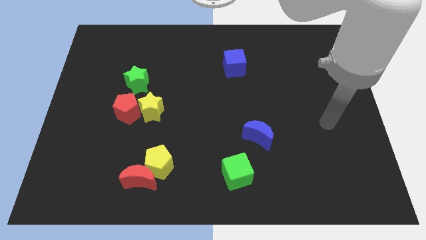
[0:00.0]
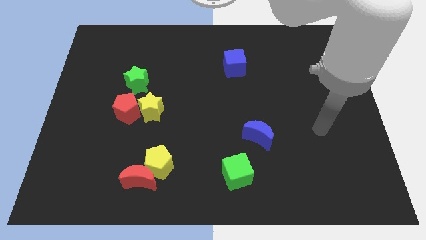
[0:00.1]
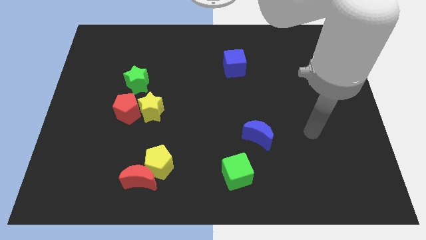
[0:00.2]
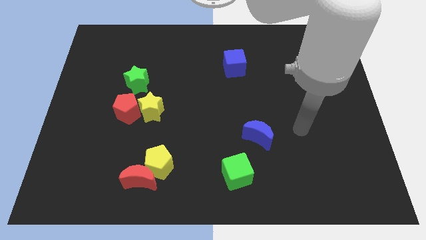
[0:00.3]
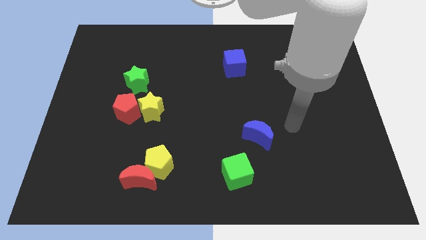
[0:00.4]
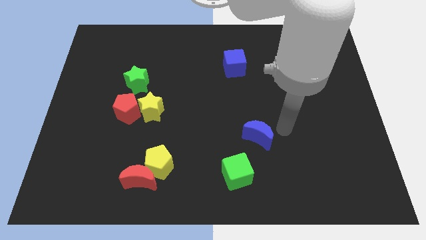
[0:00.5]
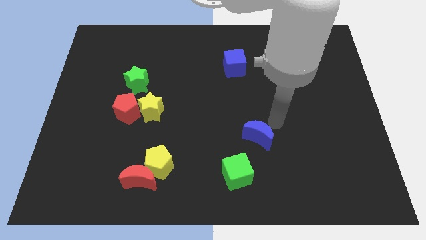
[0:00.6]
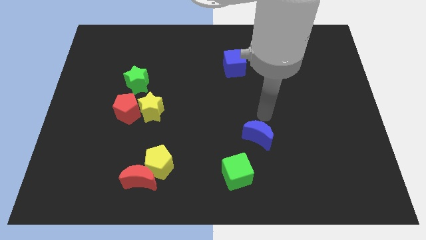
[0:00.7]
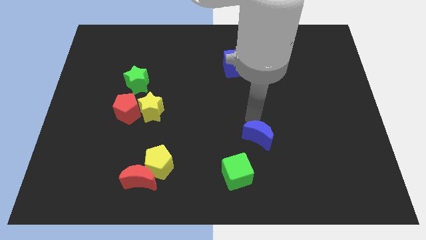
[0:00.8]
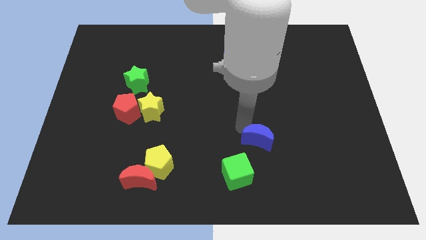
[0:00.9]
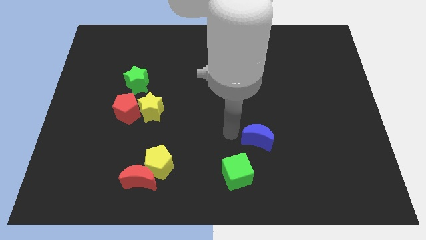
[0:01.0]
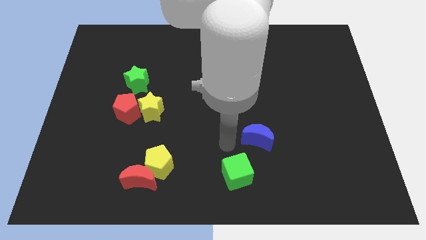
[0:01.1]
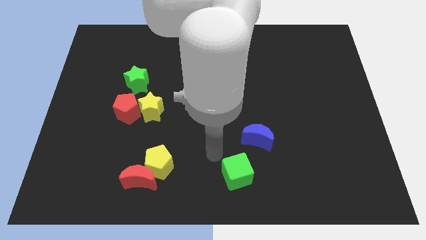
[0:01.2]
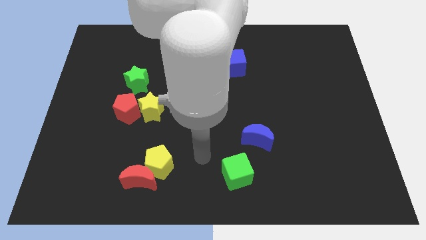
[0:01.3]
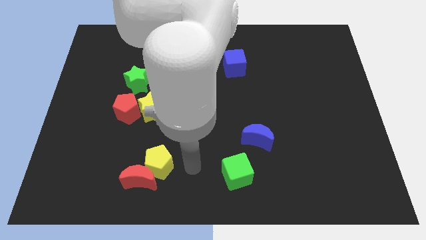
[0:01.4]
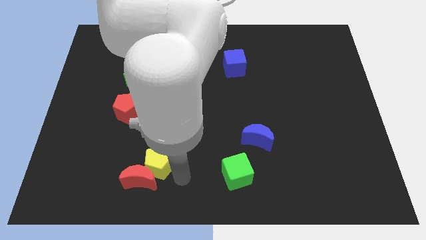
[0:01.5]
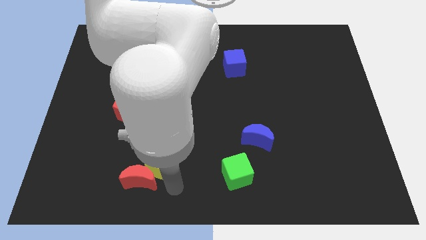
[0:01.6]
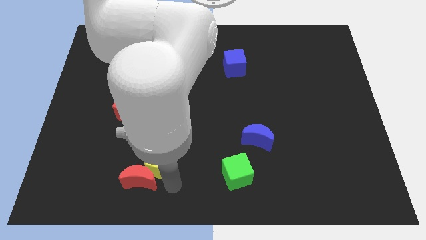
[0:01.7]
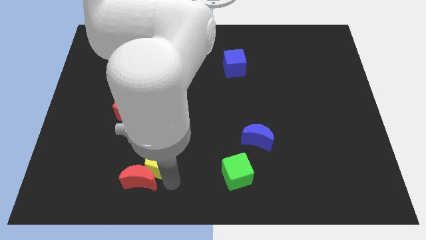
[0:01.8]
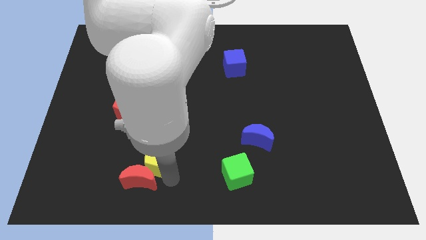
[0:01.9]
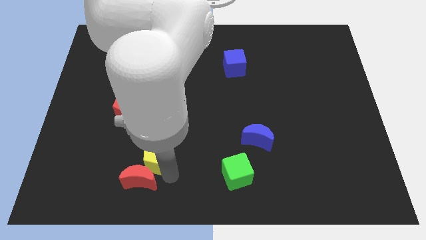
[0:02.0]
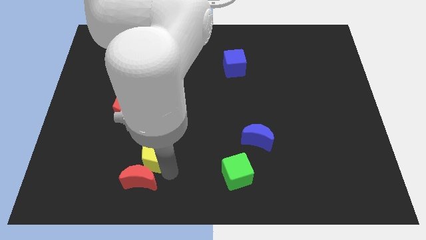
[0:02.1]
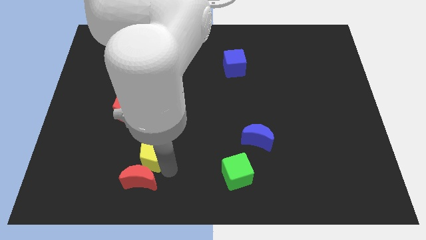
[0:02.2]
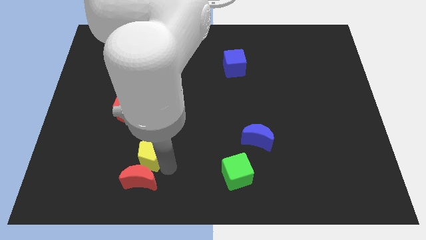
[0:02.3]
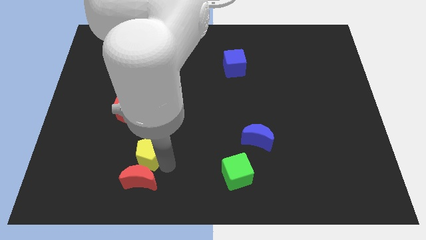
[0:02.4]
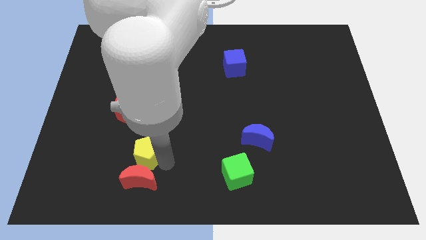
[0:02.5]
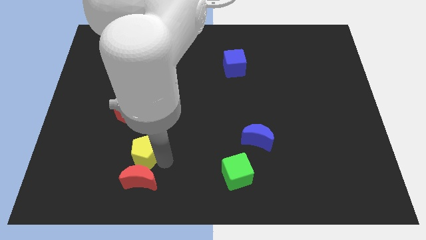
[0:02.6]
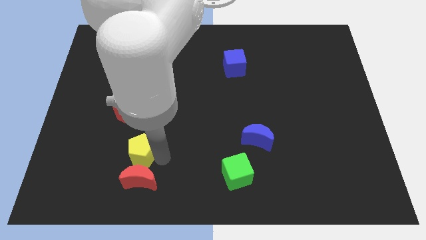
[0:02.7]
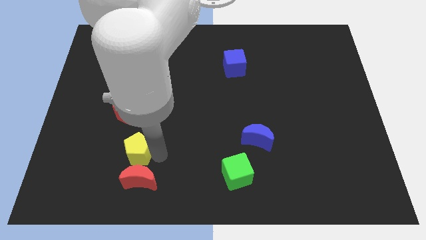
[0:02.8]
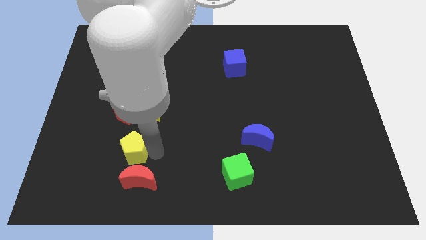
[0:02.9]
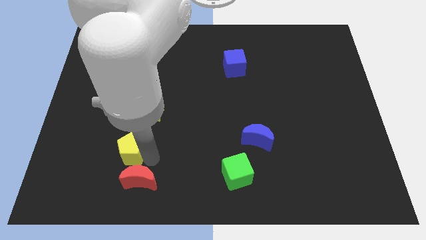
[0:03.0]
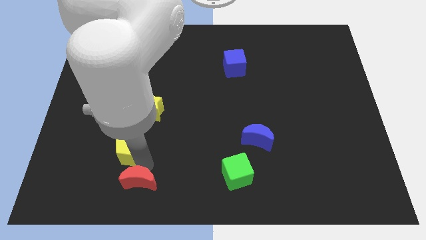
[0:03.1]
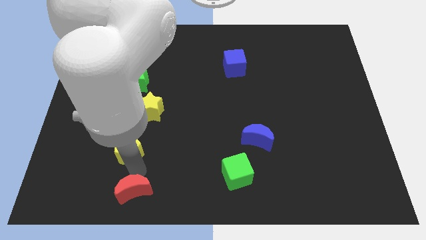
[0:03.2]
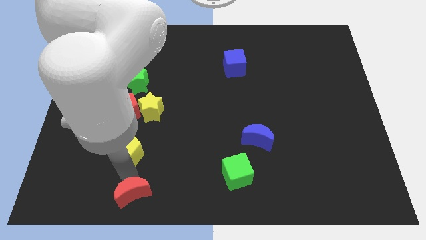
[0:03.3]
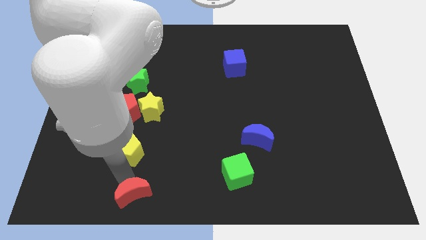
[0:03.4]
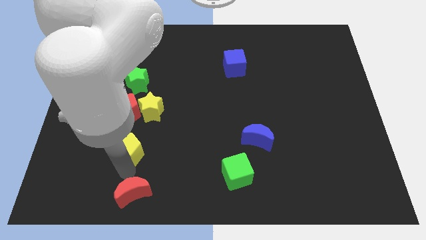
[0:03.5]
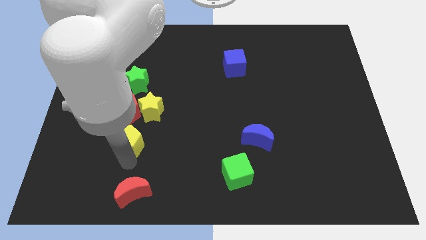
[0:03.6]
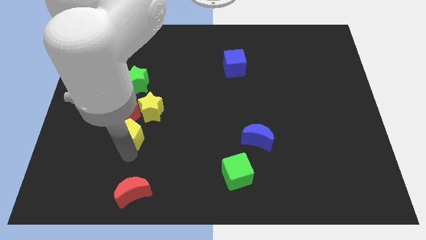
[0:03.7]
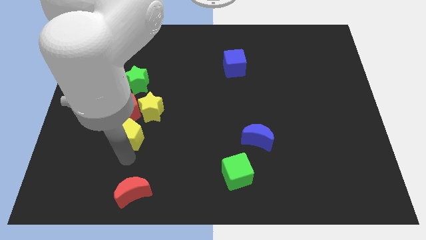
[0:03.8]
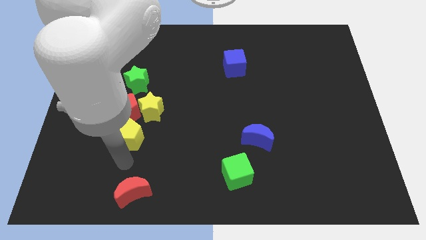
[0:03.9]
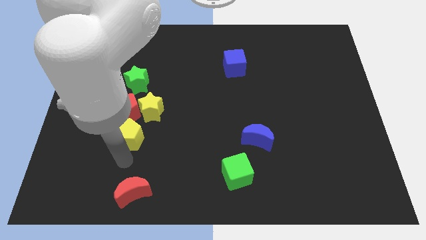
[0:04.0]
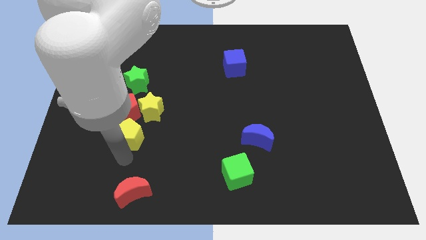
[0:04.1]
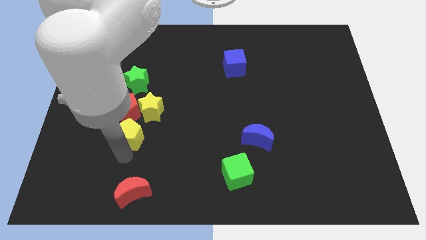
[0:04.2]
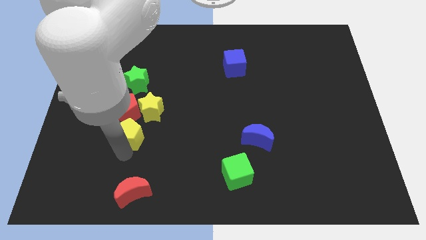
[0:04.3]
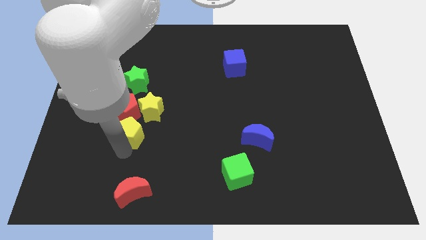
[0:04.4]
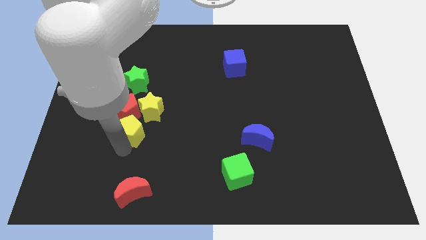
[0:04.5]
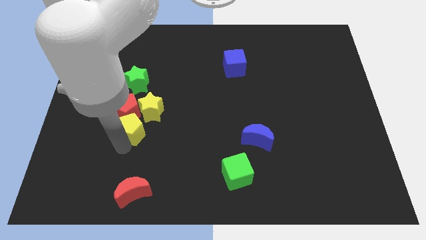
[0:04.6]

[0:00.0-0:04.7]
push the yellow pentagon close to the red pentagon

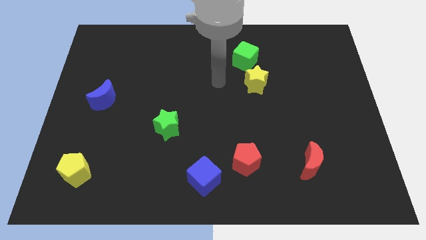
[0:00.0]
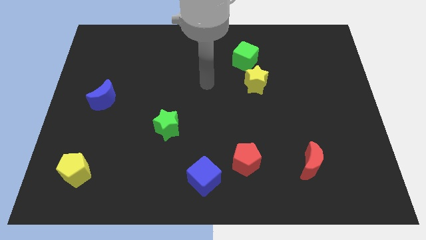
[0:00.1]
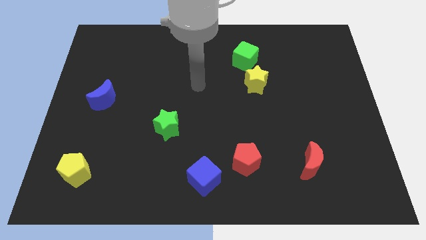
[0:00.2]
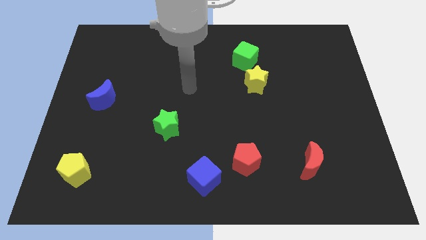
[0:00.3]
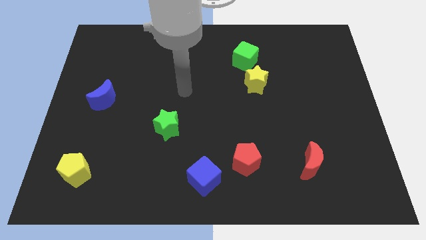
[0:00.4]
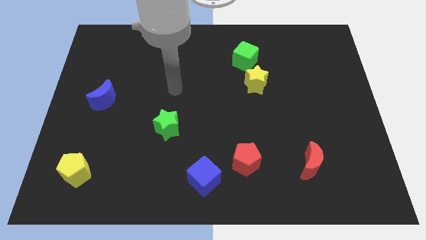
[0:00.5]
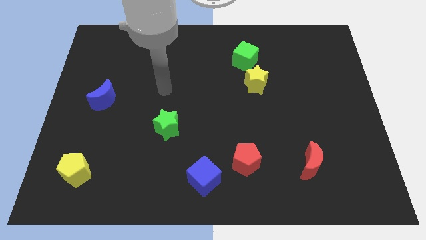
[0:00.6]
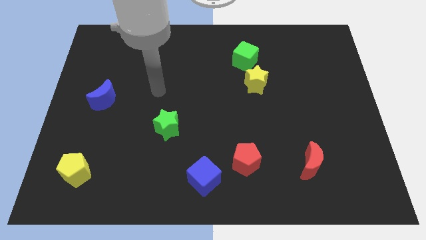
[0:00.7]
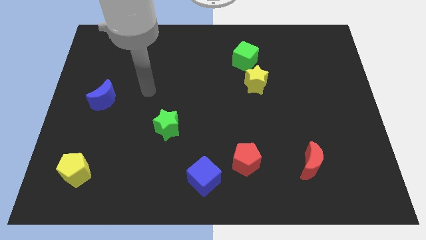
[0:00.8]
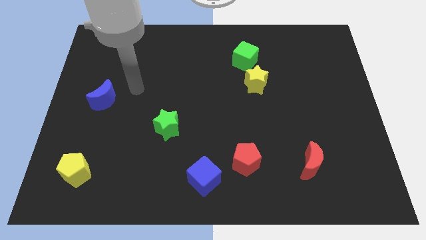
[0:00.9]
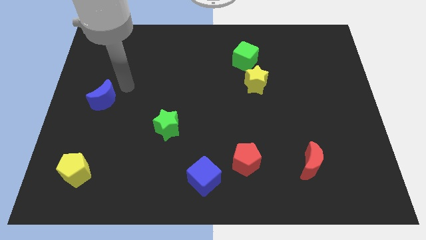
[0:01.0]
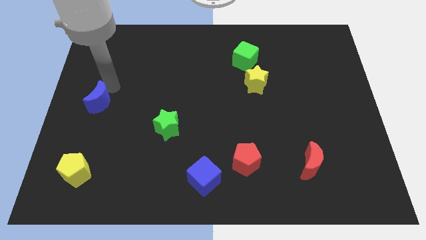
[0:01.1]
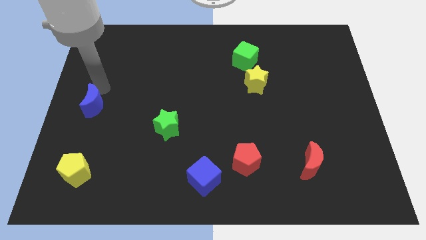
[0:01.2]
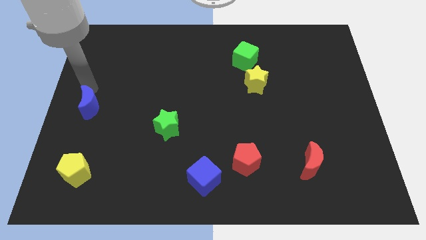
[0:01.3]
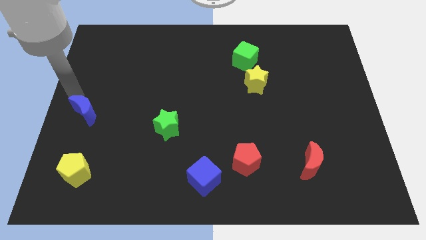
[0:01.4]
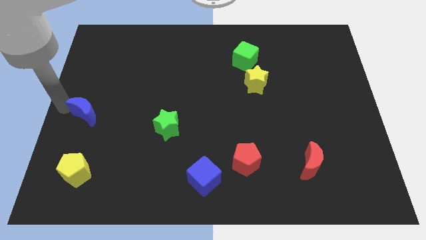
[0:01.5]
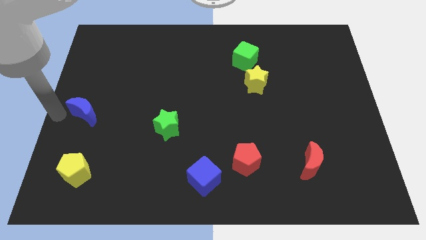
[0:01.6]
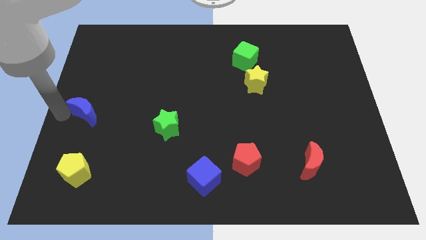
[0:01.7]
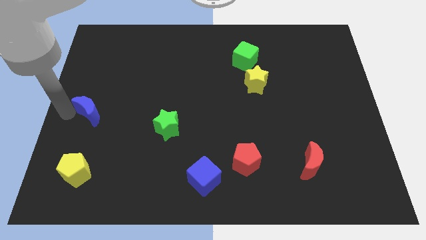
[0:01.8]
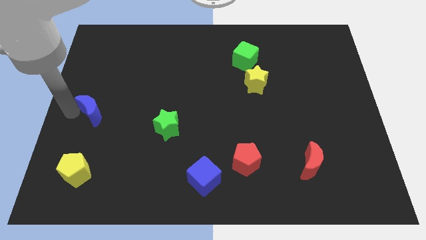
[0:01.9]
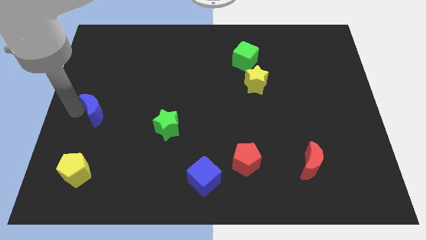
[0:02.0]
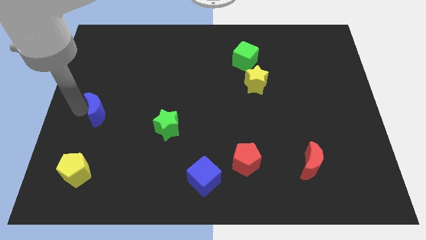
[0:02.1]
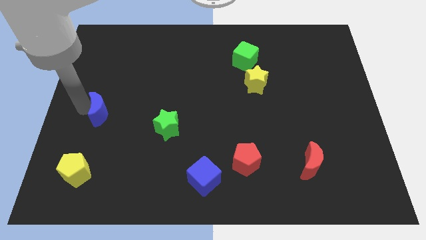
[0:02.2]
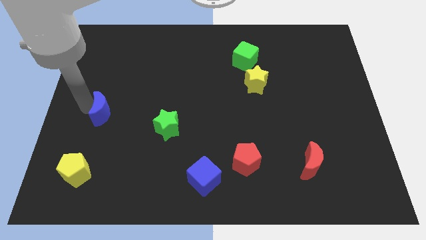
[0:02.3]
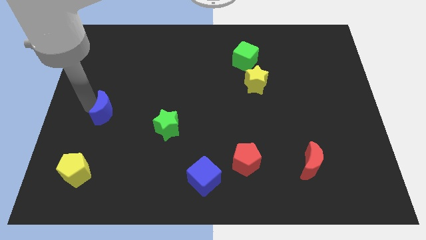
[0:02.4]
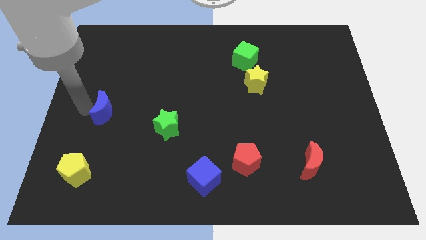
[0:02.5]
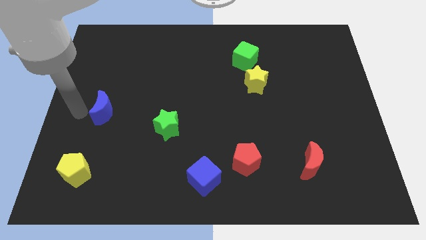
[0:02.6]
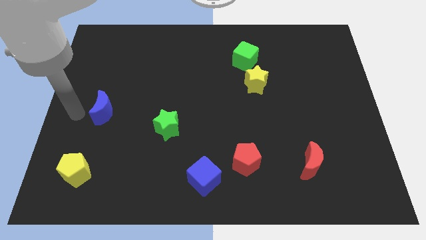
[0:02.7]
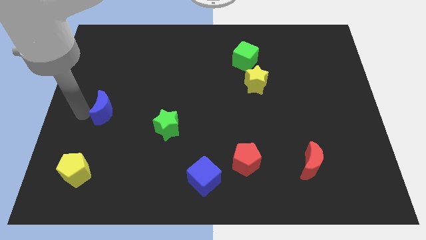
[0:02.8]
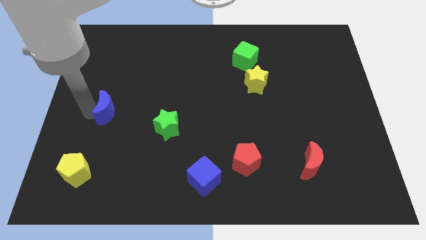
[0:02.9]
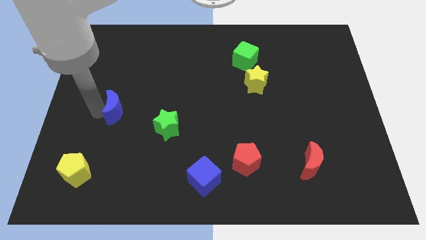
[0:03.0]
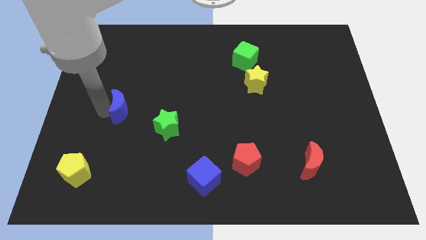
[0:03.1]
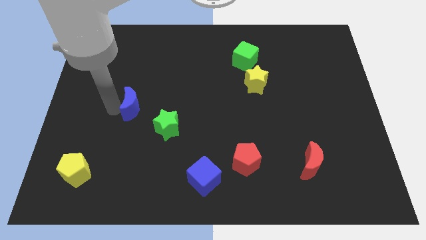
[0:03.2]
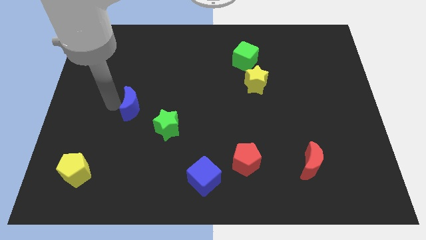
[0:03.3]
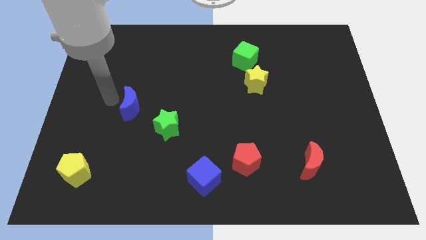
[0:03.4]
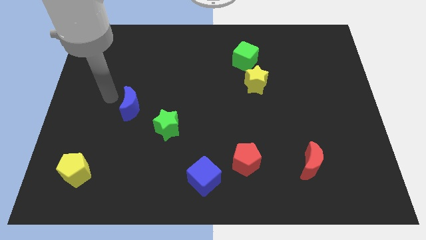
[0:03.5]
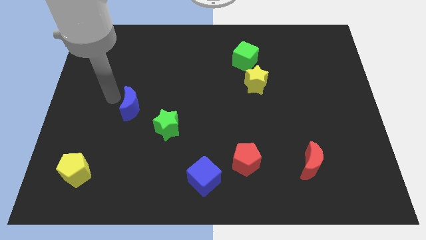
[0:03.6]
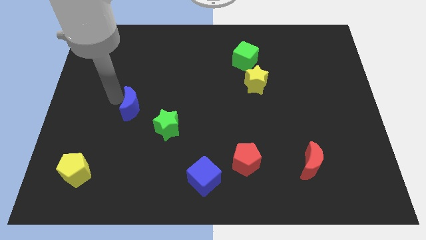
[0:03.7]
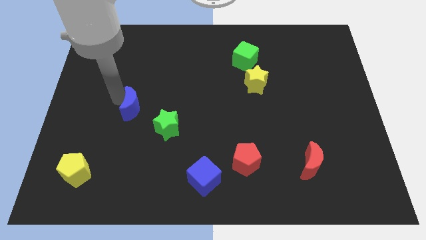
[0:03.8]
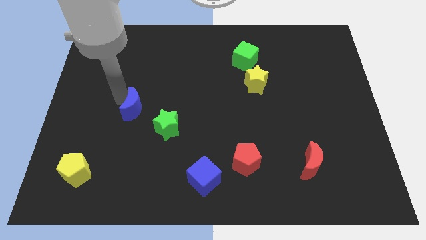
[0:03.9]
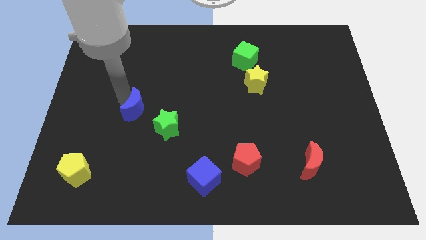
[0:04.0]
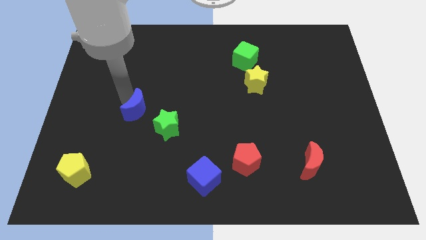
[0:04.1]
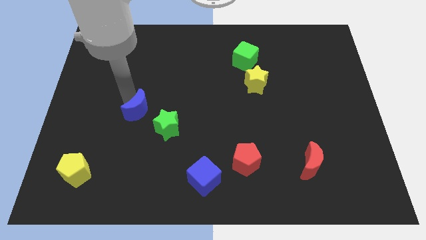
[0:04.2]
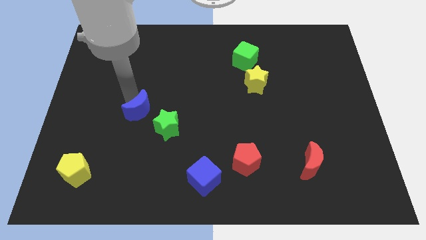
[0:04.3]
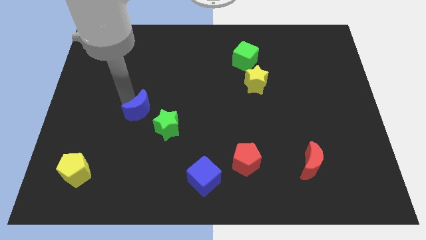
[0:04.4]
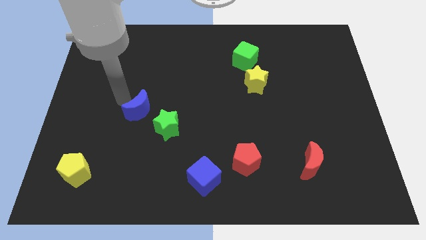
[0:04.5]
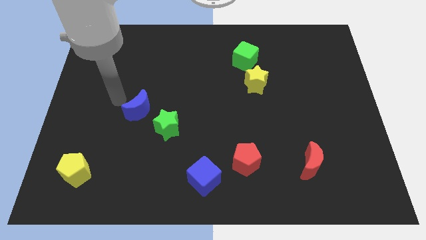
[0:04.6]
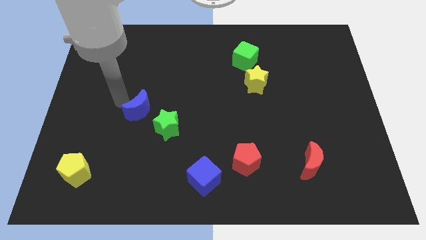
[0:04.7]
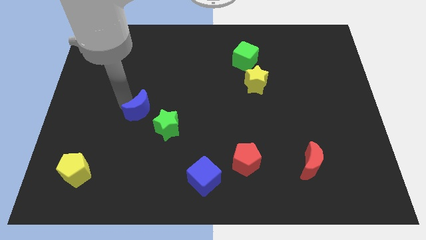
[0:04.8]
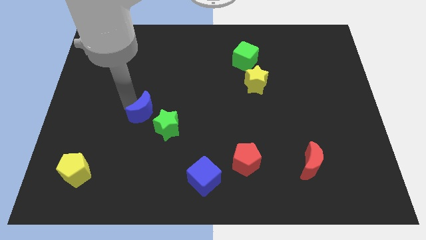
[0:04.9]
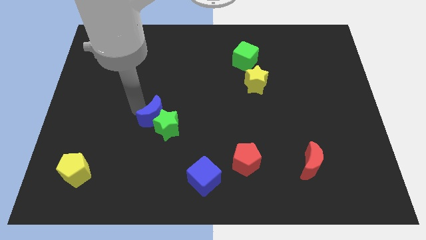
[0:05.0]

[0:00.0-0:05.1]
move the blue moon towards the green star
